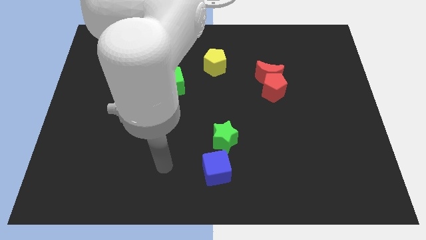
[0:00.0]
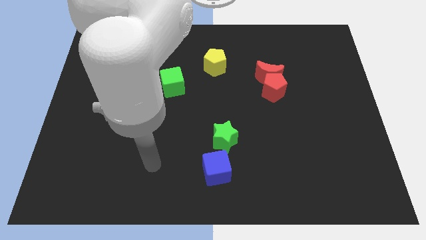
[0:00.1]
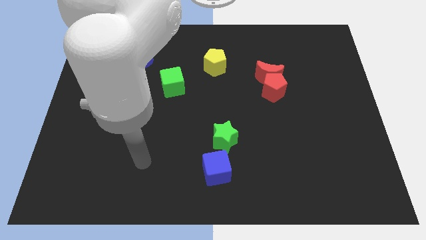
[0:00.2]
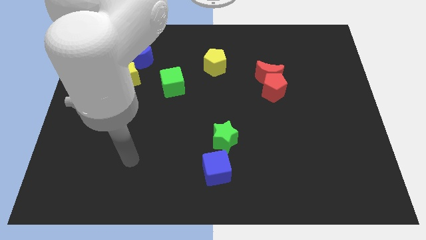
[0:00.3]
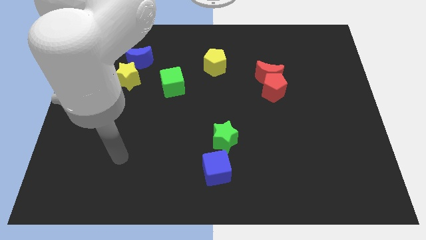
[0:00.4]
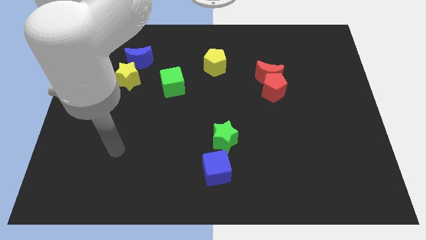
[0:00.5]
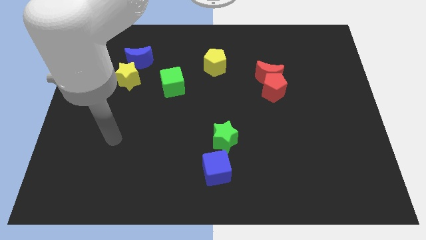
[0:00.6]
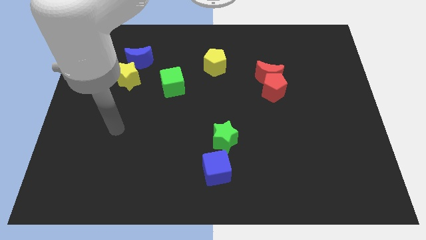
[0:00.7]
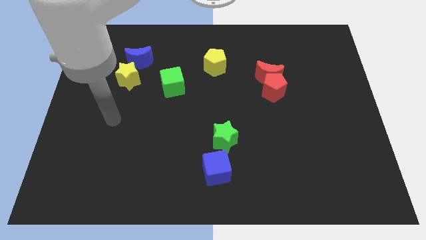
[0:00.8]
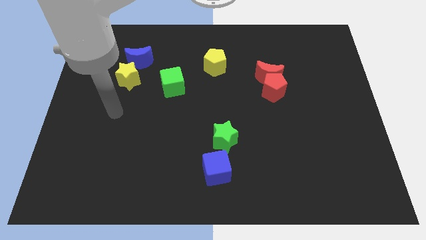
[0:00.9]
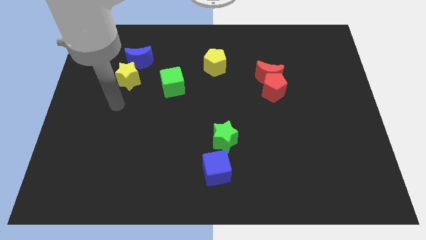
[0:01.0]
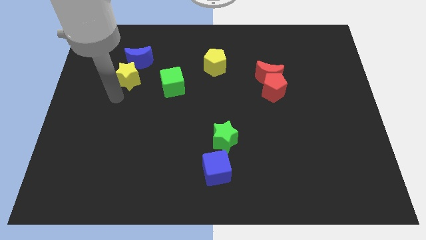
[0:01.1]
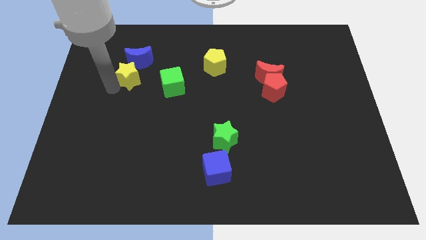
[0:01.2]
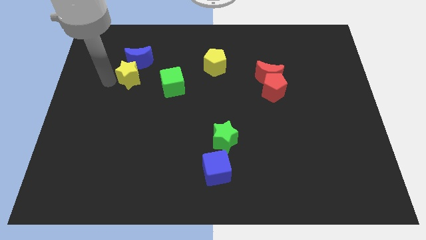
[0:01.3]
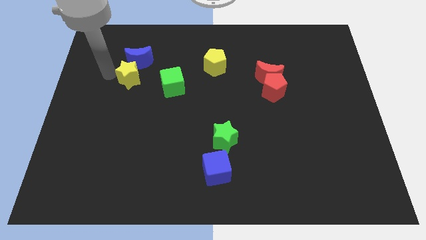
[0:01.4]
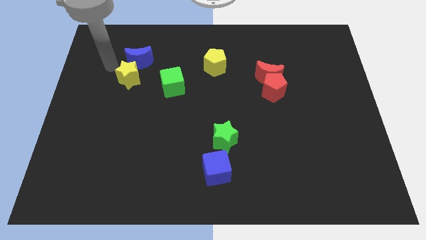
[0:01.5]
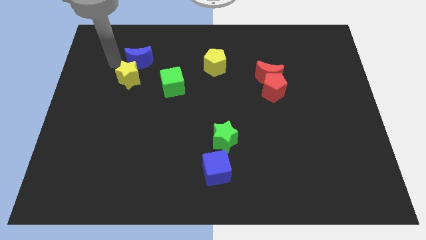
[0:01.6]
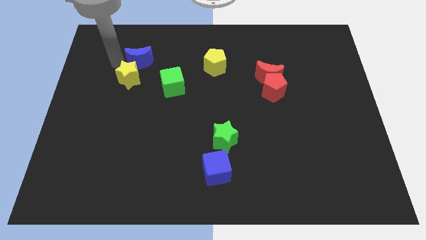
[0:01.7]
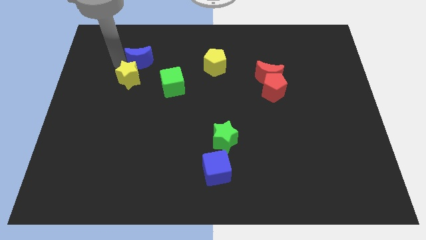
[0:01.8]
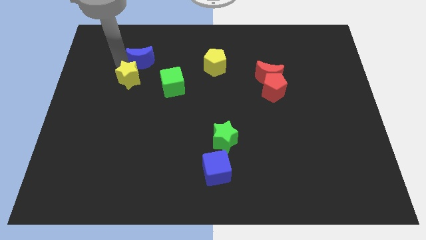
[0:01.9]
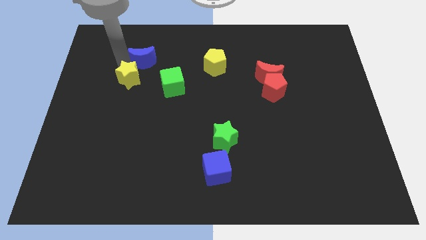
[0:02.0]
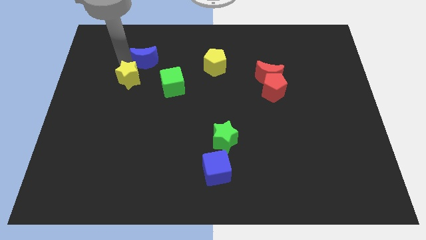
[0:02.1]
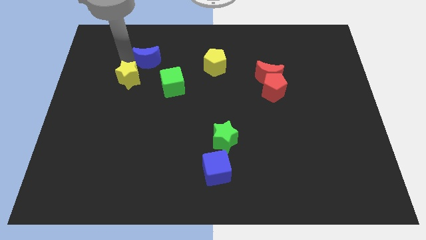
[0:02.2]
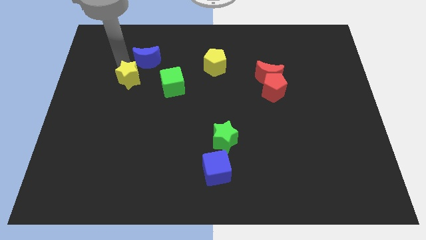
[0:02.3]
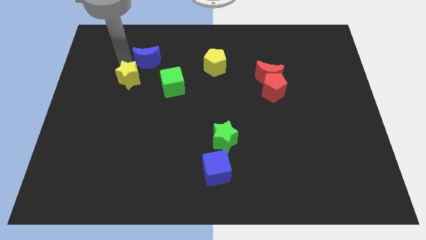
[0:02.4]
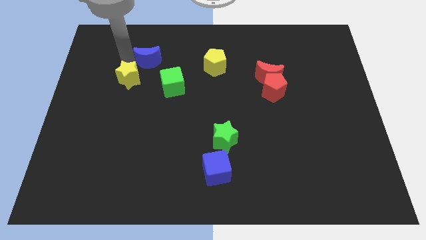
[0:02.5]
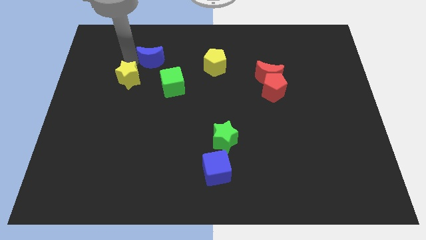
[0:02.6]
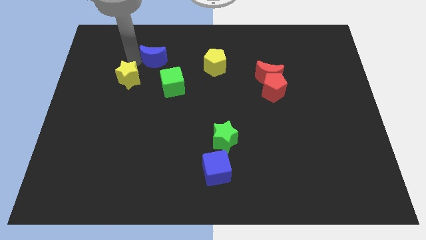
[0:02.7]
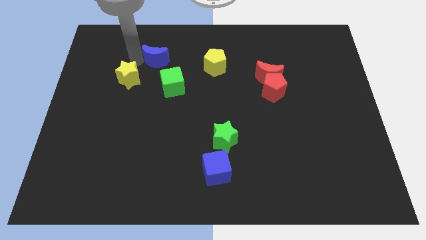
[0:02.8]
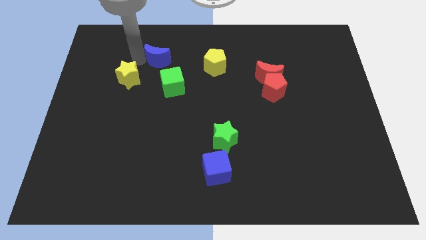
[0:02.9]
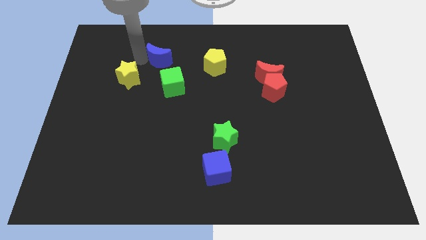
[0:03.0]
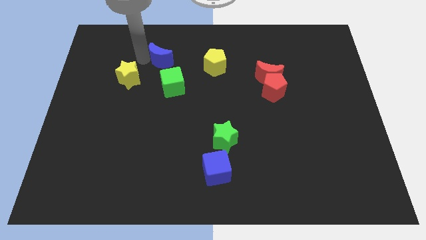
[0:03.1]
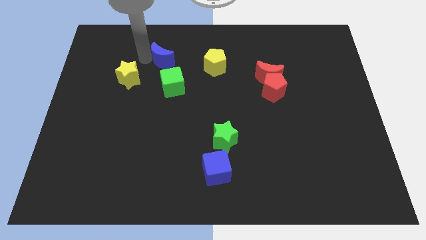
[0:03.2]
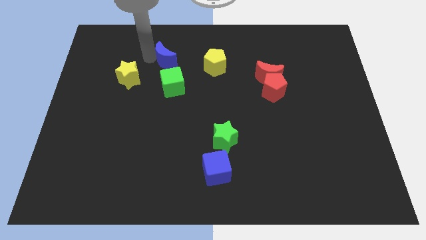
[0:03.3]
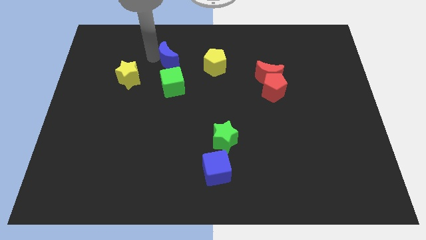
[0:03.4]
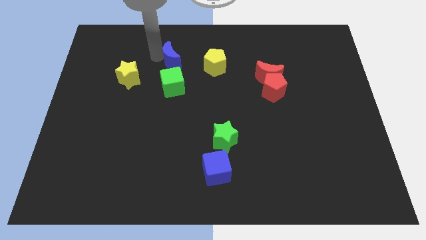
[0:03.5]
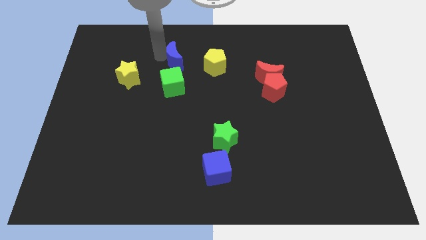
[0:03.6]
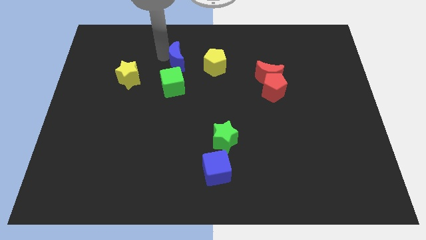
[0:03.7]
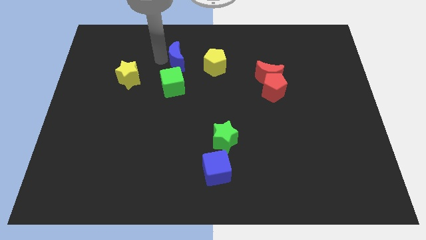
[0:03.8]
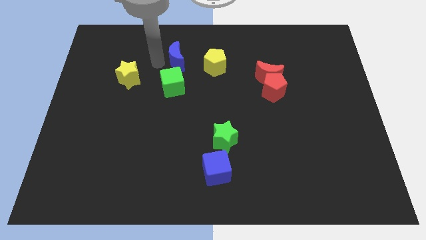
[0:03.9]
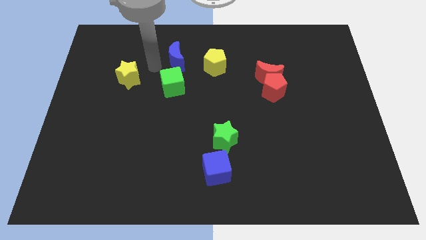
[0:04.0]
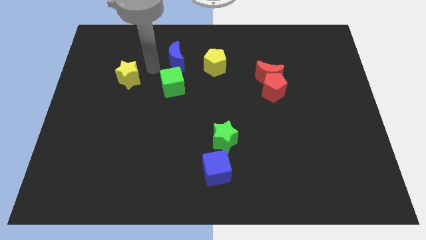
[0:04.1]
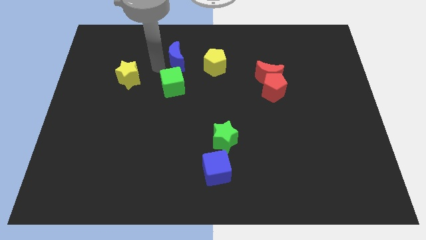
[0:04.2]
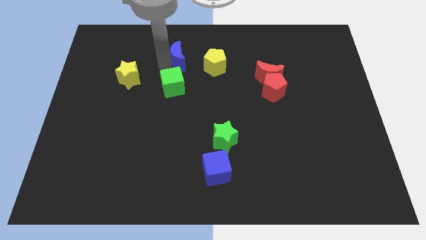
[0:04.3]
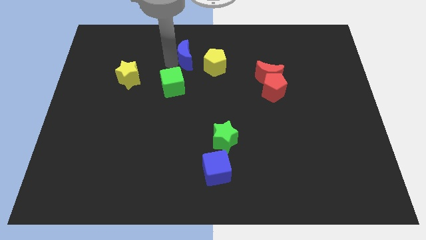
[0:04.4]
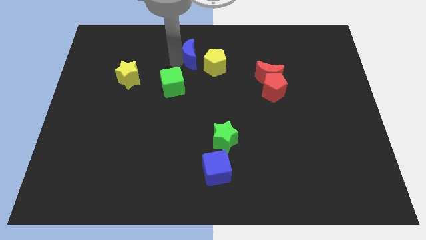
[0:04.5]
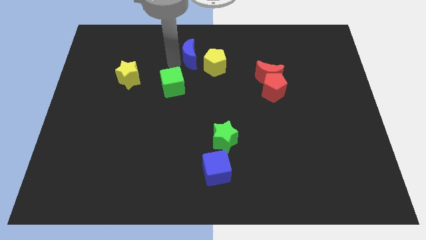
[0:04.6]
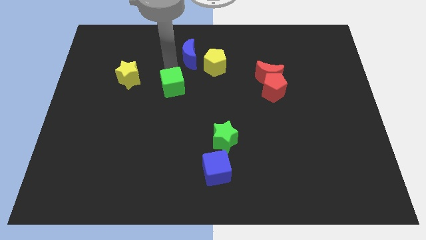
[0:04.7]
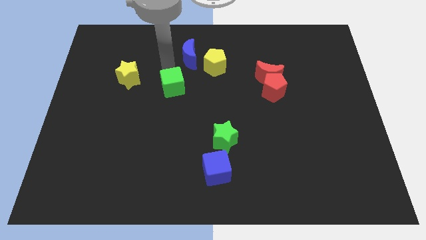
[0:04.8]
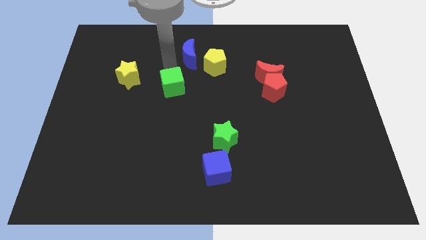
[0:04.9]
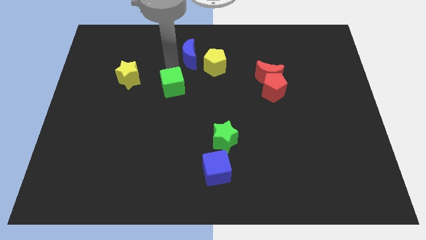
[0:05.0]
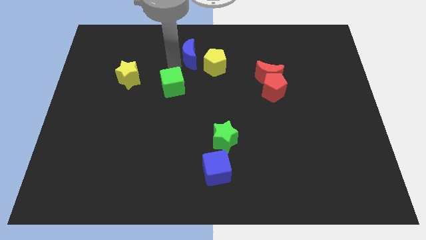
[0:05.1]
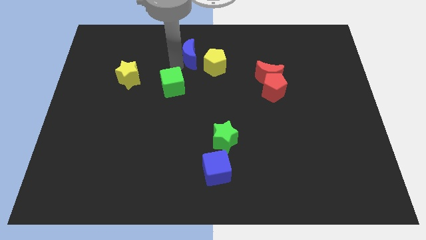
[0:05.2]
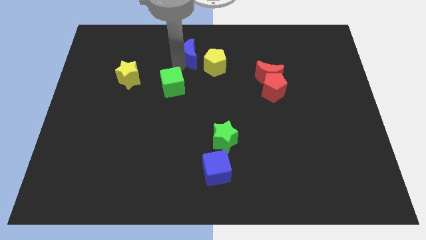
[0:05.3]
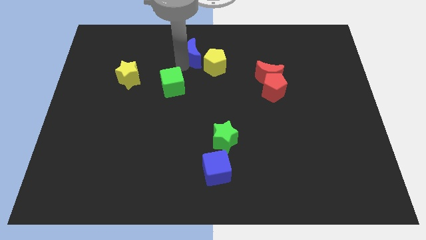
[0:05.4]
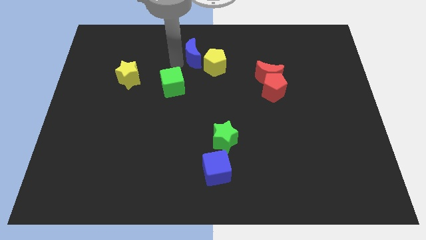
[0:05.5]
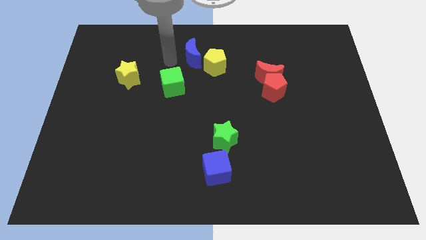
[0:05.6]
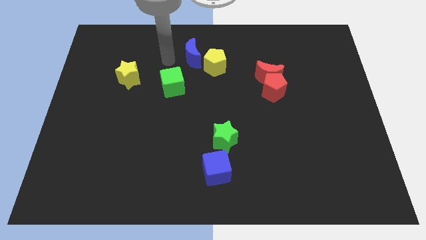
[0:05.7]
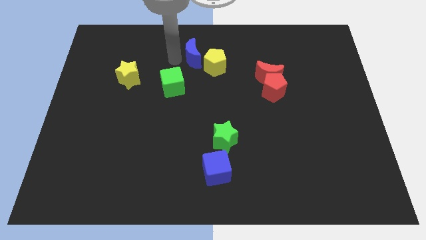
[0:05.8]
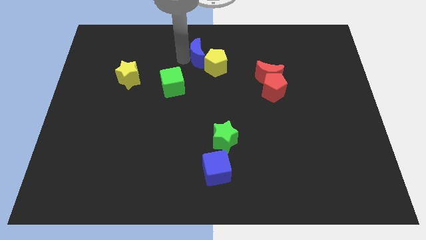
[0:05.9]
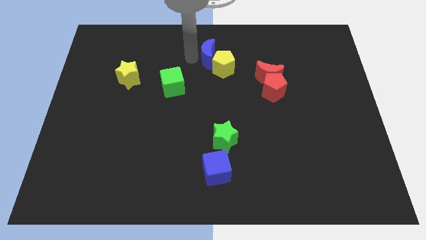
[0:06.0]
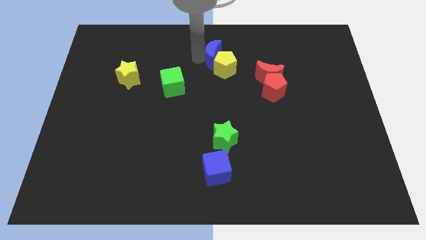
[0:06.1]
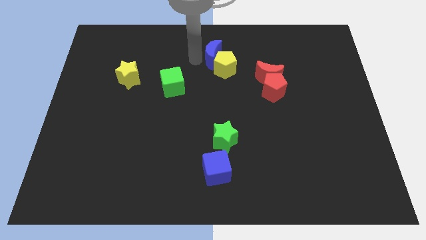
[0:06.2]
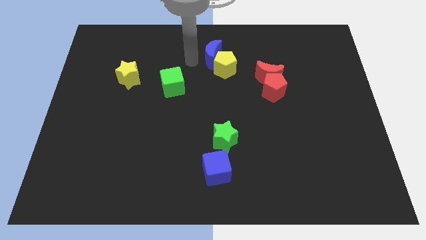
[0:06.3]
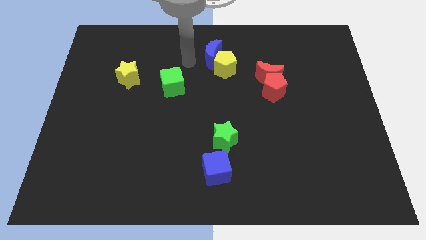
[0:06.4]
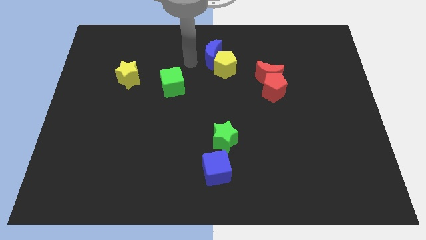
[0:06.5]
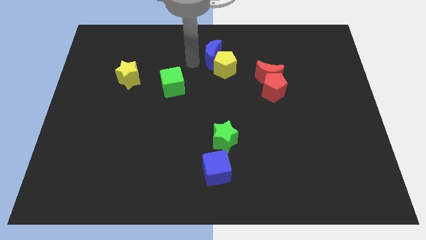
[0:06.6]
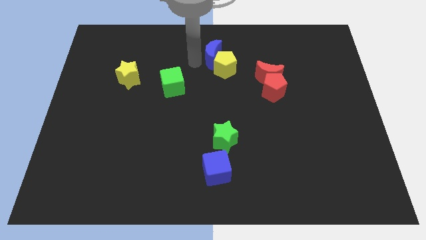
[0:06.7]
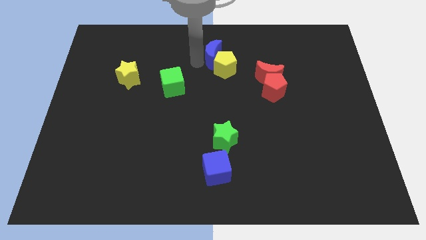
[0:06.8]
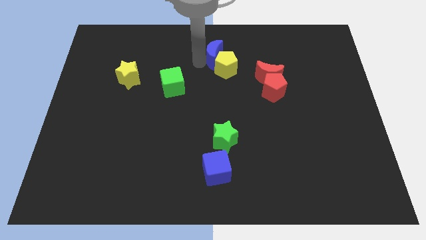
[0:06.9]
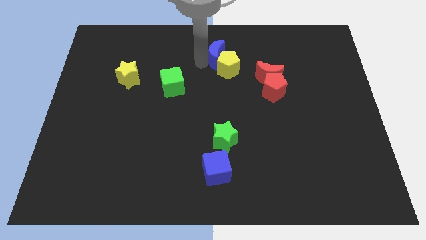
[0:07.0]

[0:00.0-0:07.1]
move the blue moon to the right

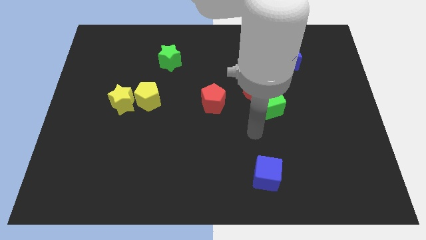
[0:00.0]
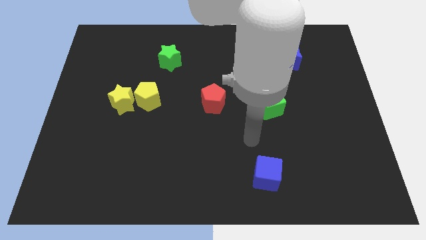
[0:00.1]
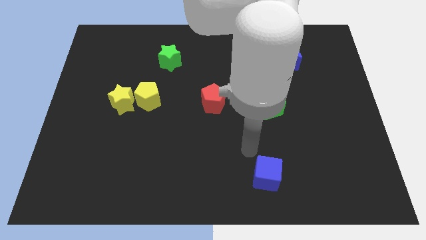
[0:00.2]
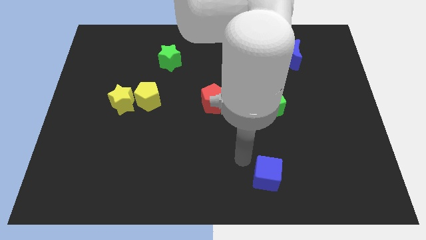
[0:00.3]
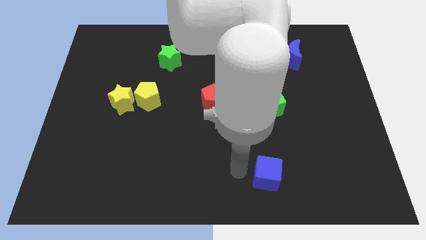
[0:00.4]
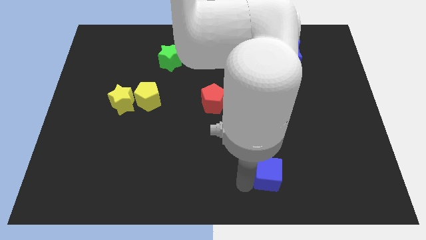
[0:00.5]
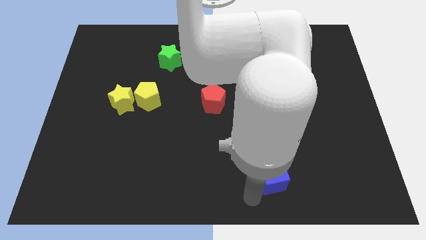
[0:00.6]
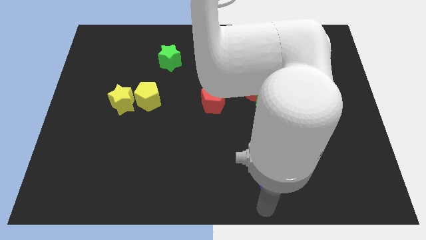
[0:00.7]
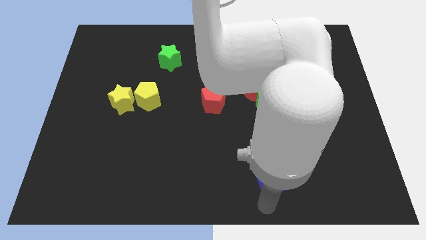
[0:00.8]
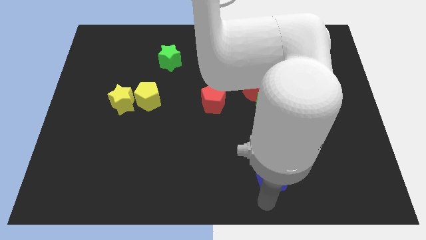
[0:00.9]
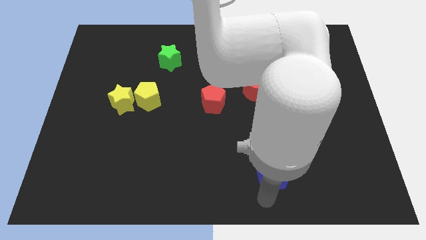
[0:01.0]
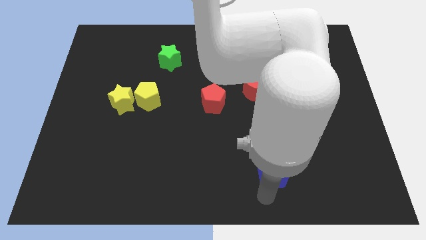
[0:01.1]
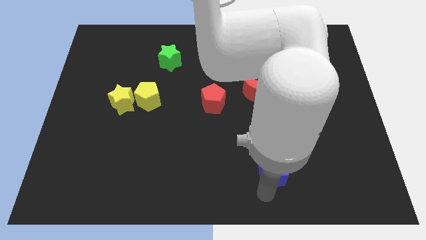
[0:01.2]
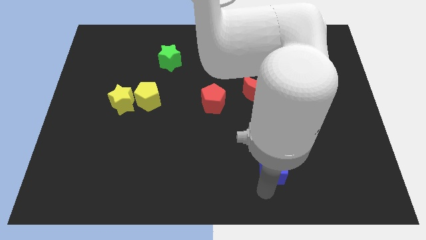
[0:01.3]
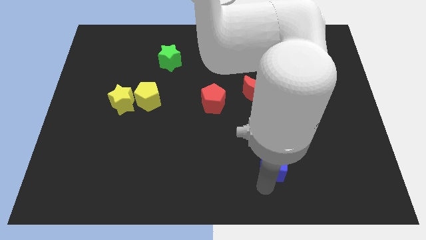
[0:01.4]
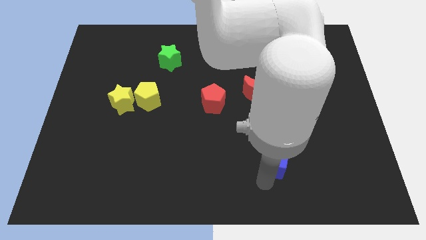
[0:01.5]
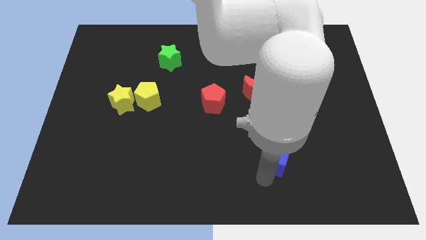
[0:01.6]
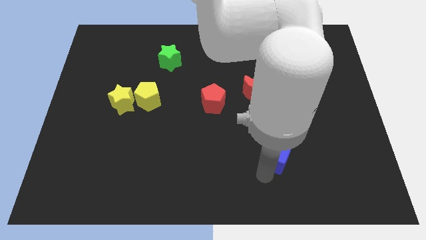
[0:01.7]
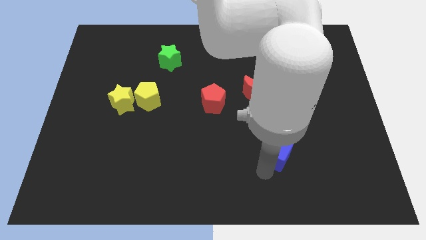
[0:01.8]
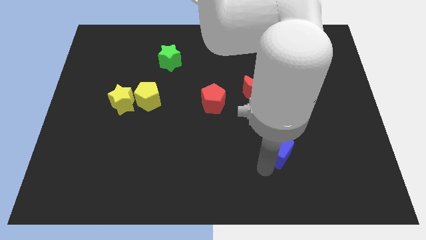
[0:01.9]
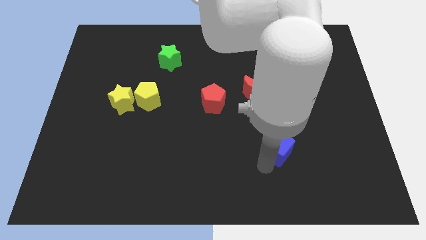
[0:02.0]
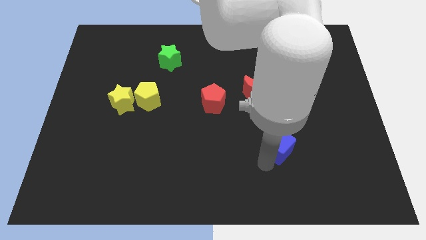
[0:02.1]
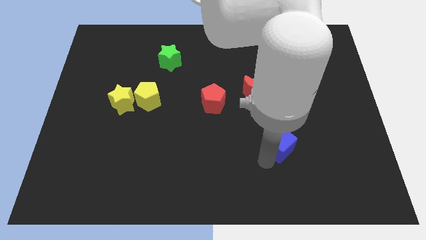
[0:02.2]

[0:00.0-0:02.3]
move the blue cube somewhat upwards and then right
